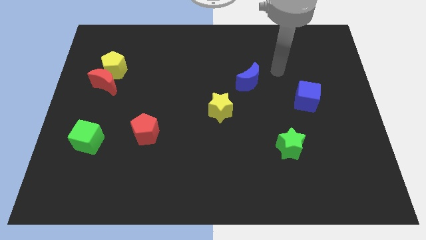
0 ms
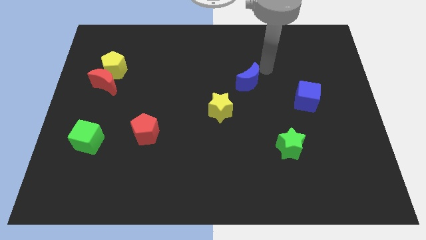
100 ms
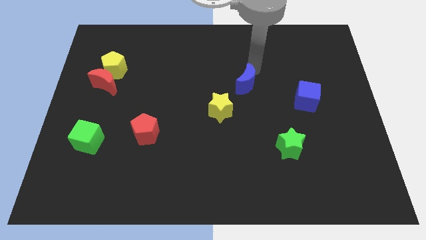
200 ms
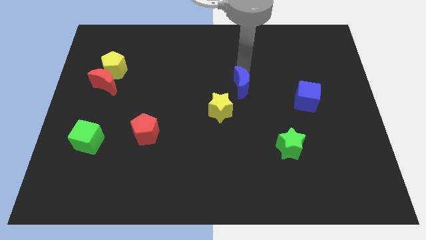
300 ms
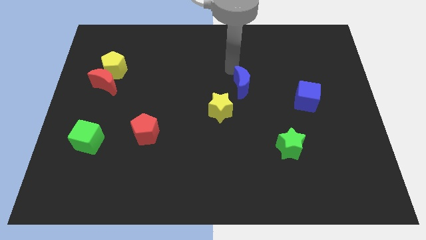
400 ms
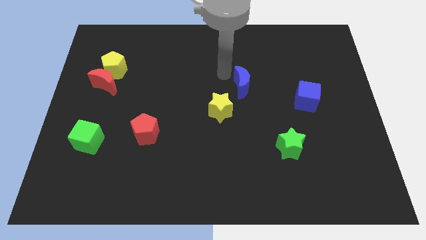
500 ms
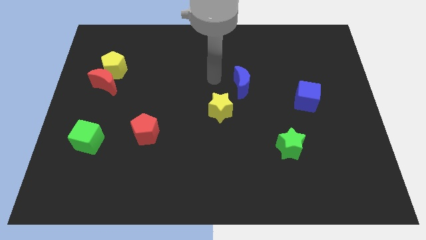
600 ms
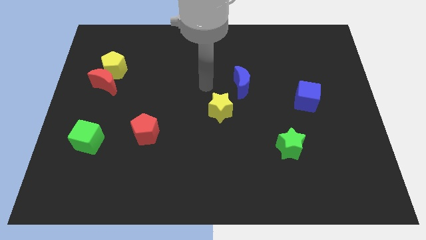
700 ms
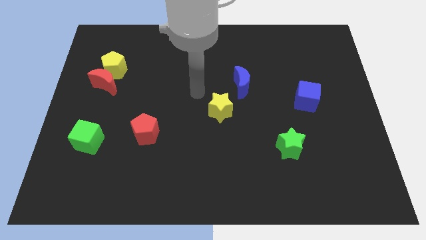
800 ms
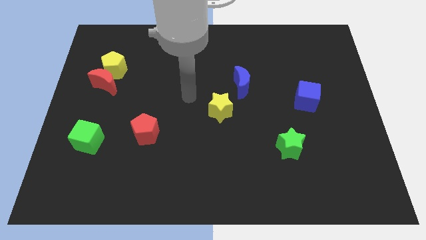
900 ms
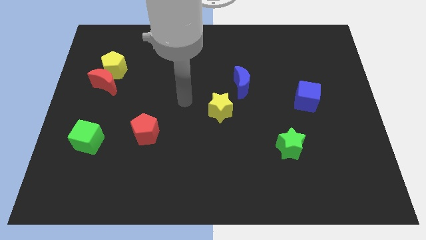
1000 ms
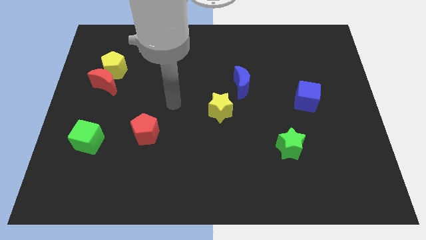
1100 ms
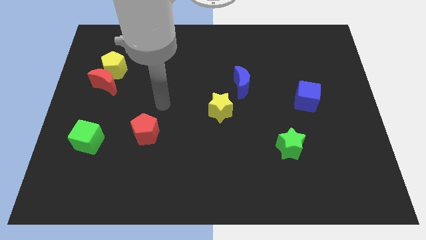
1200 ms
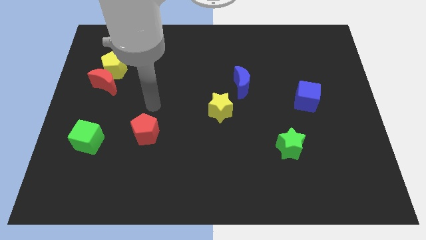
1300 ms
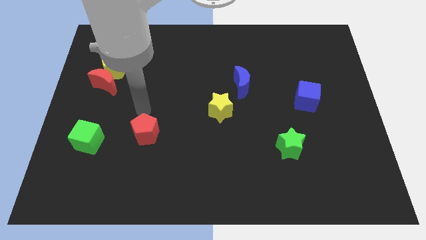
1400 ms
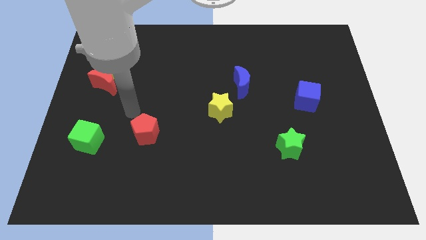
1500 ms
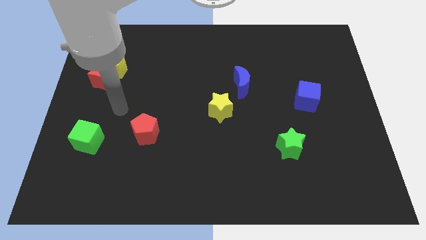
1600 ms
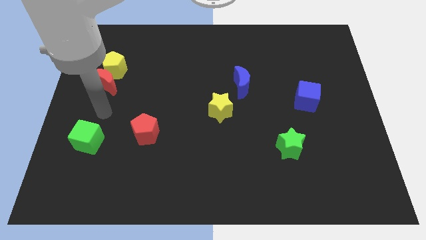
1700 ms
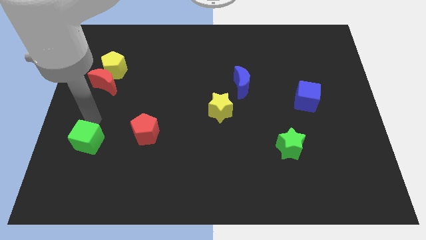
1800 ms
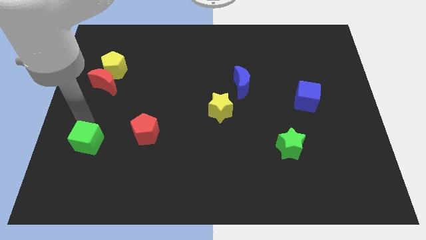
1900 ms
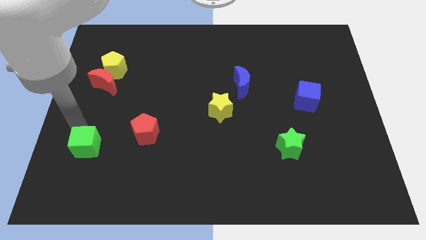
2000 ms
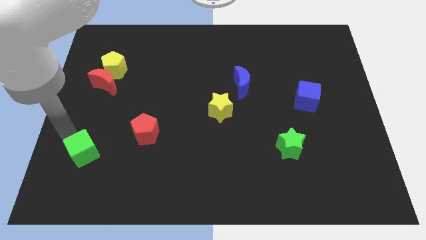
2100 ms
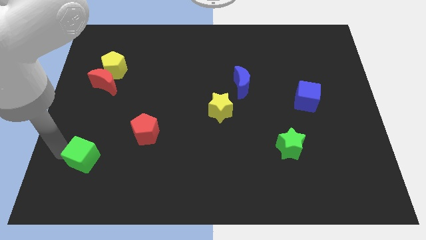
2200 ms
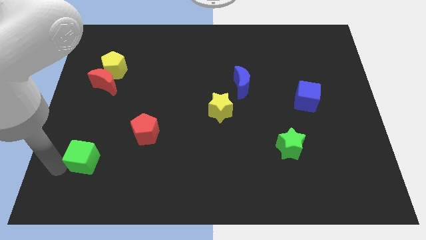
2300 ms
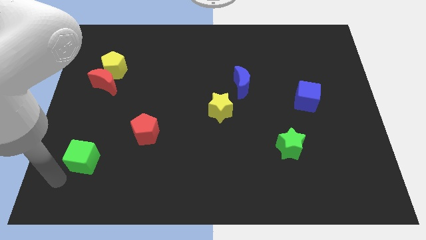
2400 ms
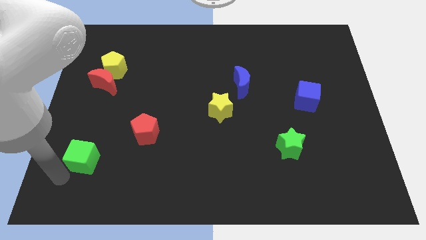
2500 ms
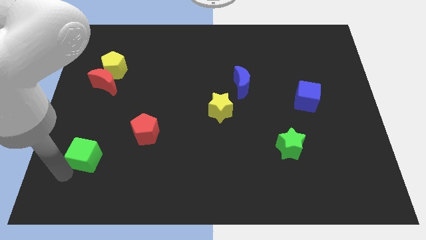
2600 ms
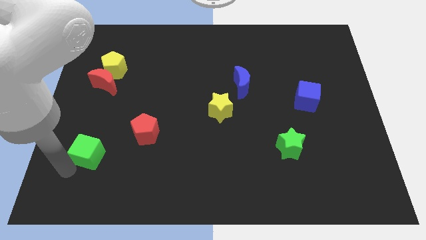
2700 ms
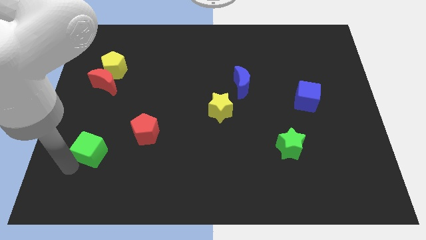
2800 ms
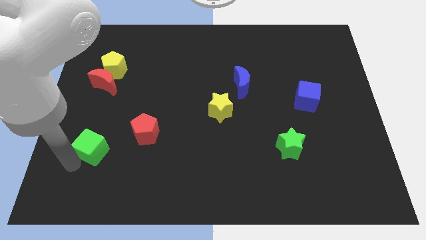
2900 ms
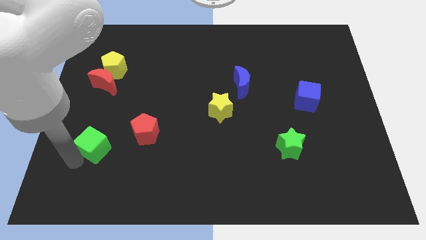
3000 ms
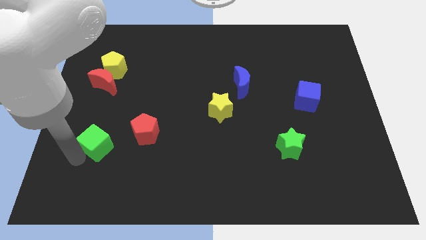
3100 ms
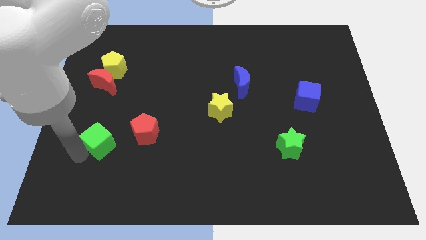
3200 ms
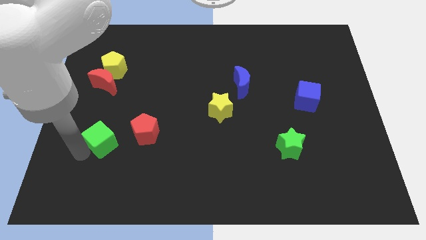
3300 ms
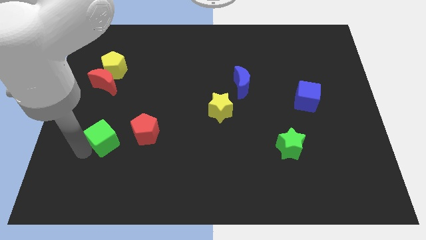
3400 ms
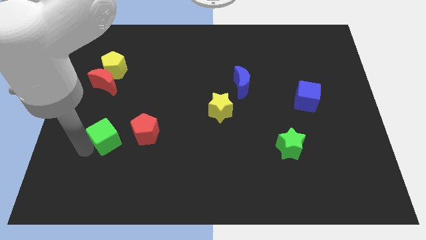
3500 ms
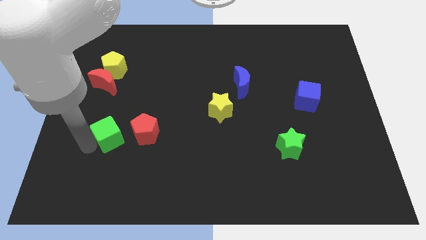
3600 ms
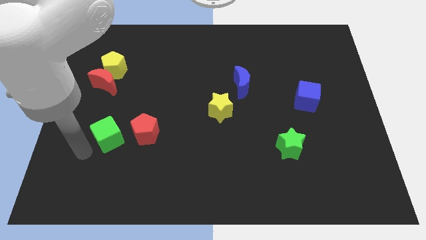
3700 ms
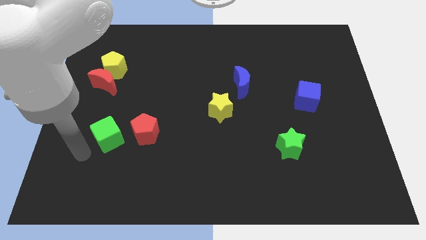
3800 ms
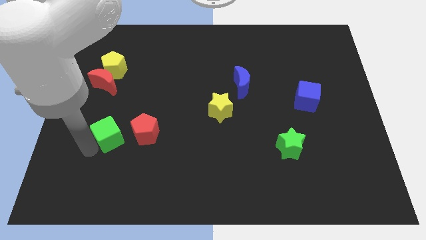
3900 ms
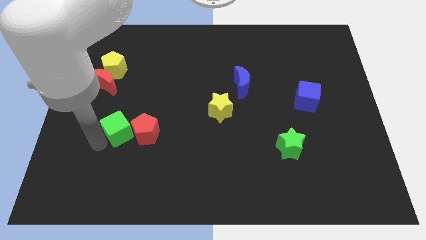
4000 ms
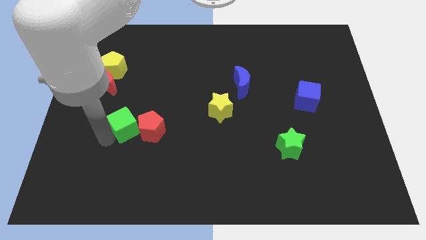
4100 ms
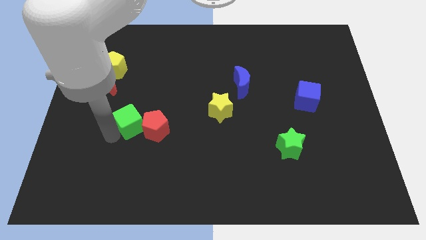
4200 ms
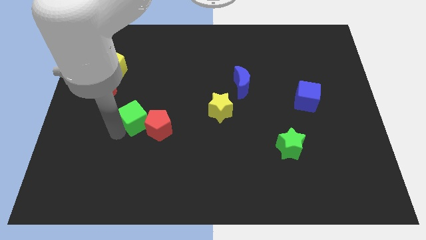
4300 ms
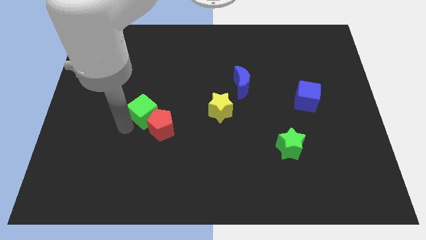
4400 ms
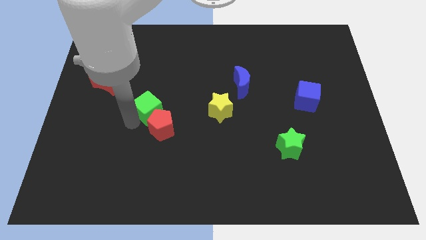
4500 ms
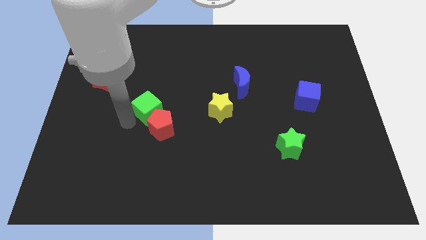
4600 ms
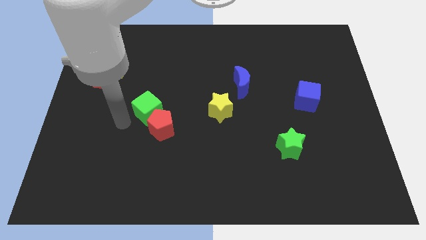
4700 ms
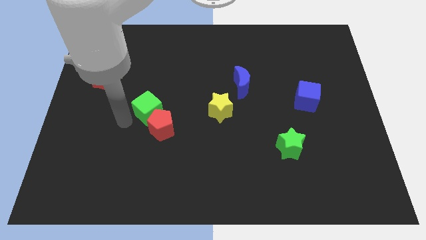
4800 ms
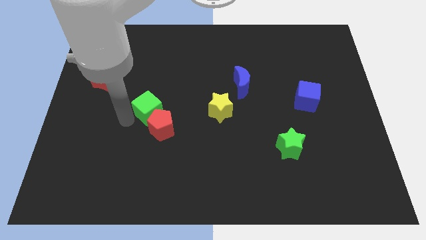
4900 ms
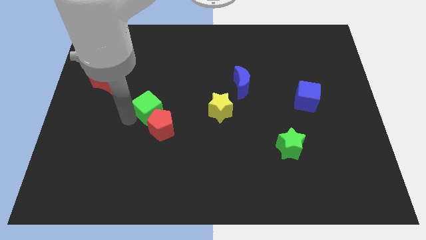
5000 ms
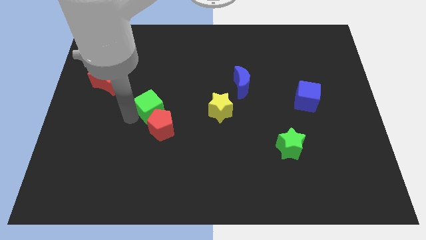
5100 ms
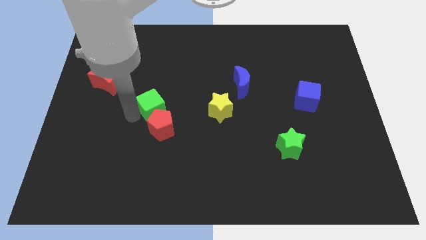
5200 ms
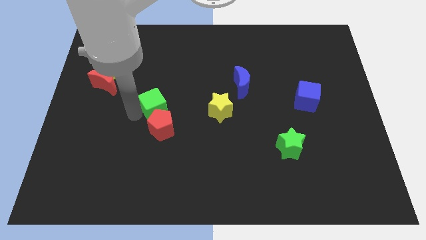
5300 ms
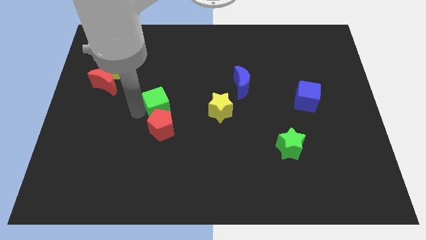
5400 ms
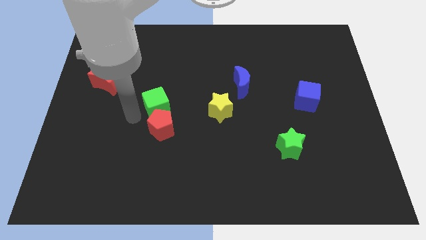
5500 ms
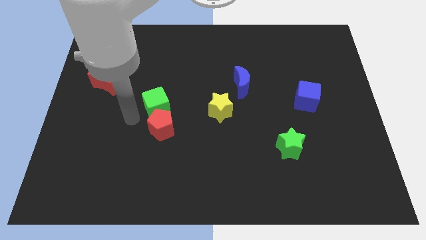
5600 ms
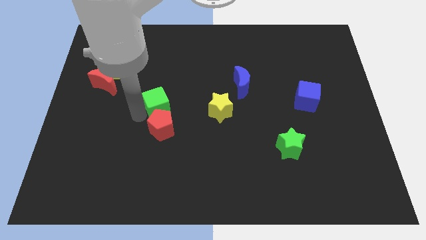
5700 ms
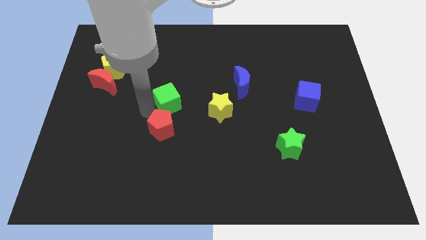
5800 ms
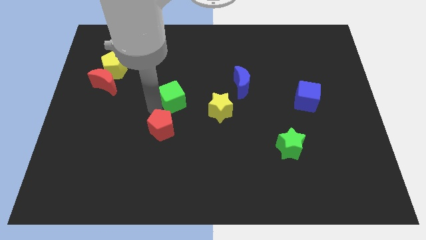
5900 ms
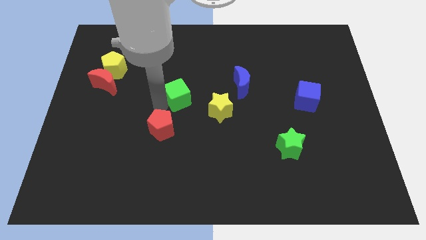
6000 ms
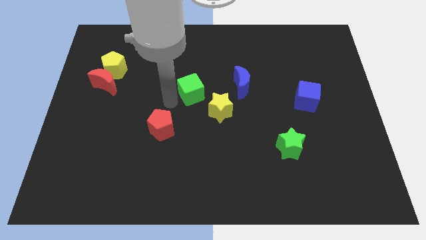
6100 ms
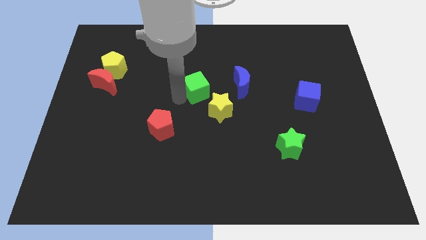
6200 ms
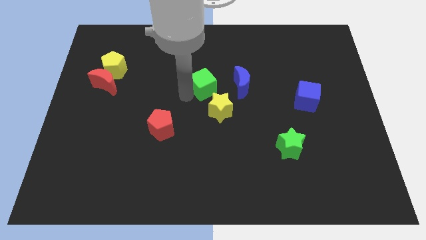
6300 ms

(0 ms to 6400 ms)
put the green cube to the top of the yellow star

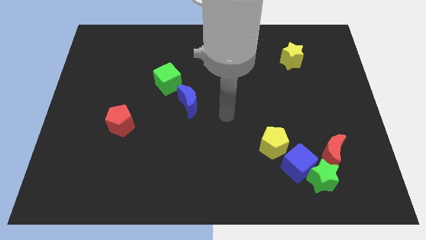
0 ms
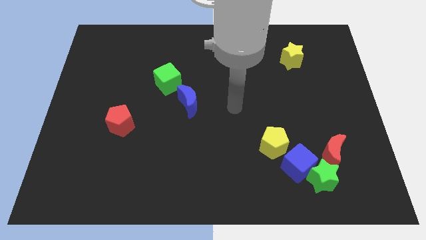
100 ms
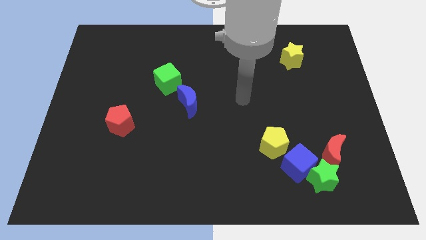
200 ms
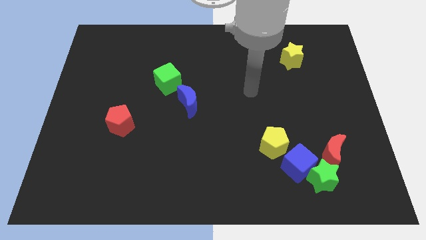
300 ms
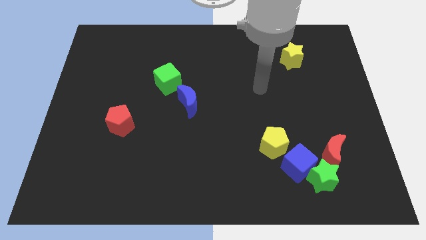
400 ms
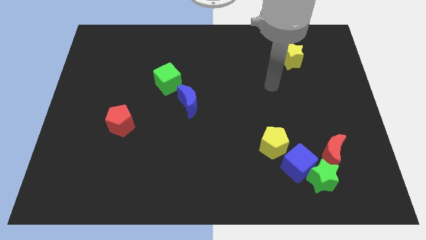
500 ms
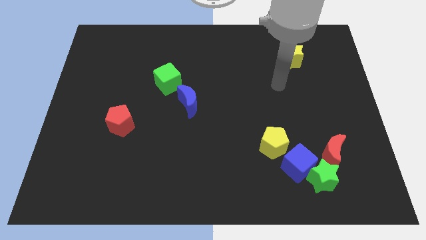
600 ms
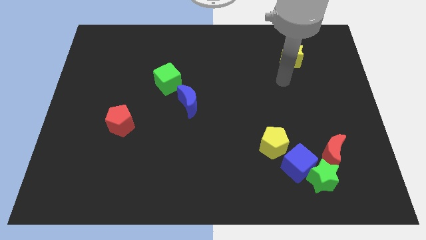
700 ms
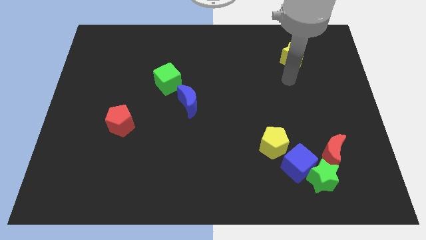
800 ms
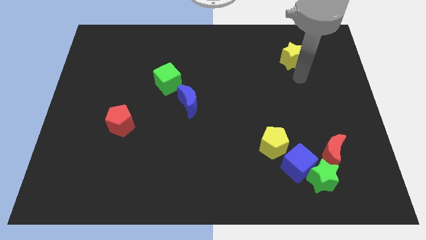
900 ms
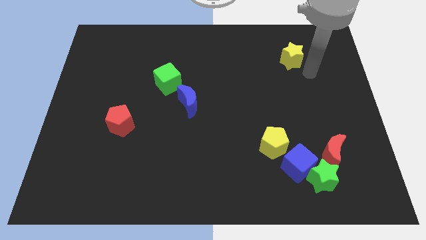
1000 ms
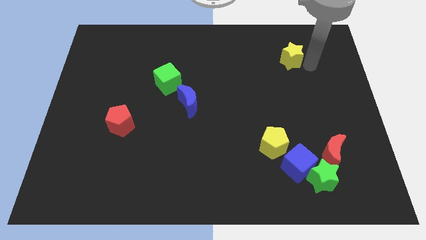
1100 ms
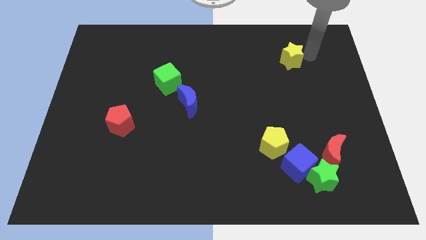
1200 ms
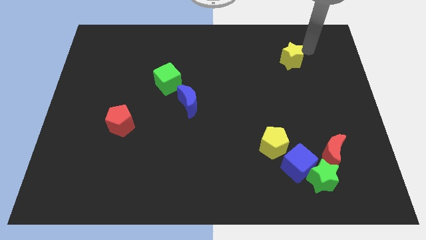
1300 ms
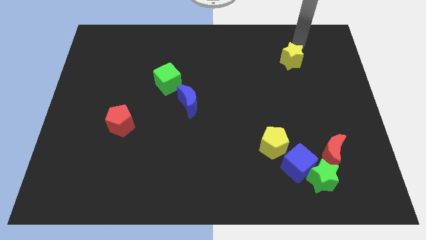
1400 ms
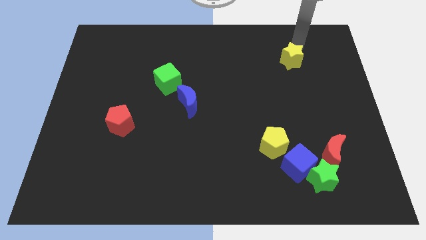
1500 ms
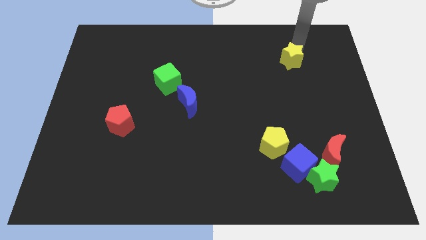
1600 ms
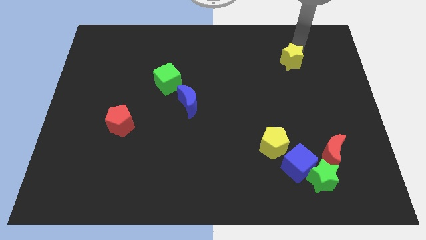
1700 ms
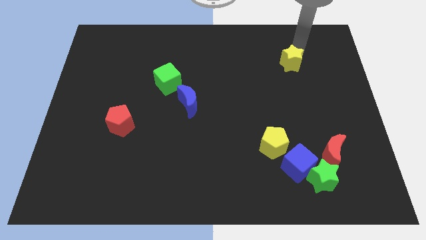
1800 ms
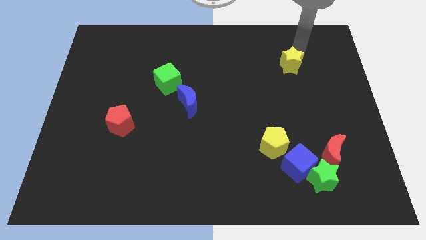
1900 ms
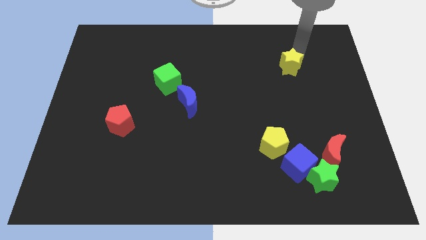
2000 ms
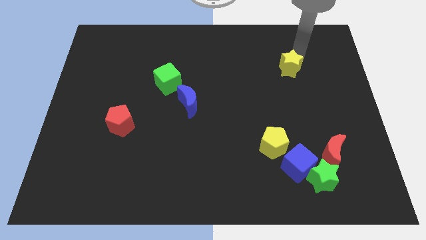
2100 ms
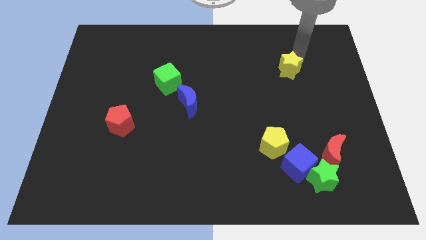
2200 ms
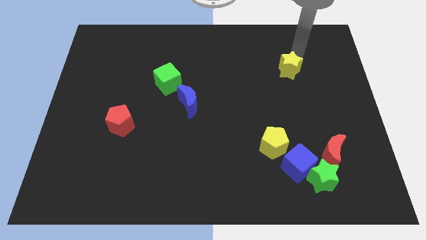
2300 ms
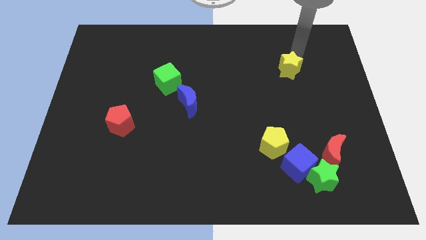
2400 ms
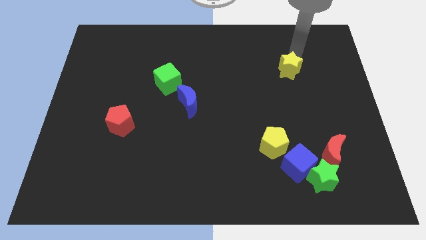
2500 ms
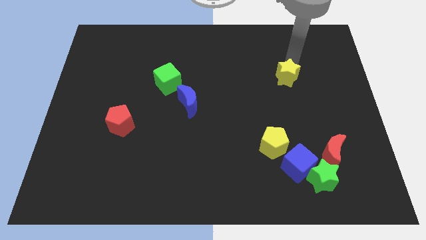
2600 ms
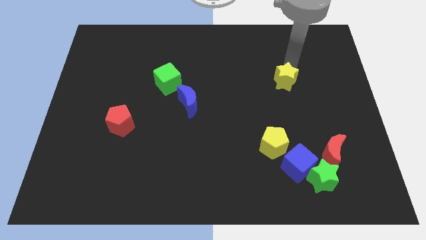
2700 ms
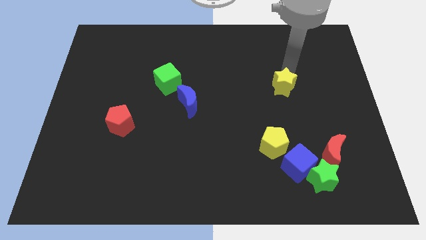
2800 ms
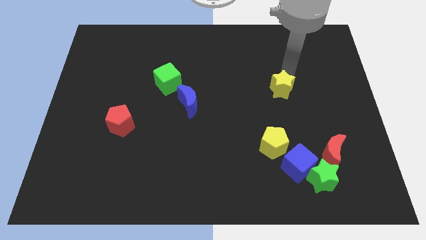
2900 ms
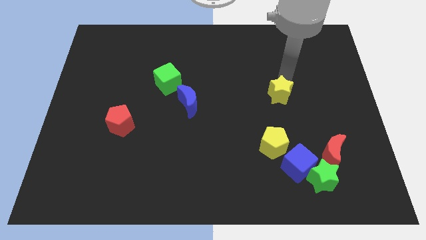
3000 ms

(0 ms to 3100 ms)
put the yellow star above the yellow pentagon
